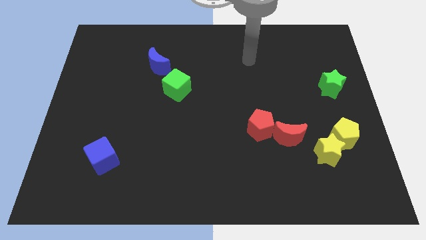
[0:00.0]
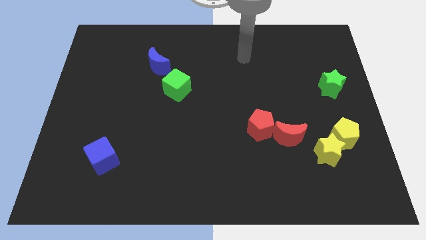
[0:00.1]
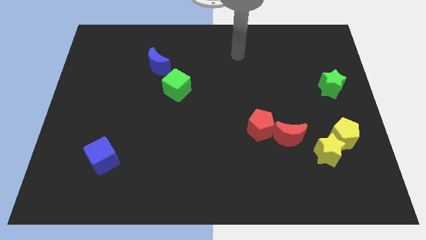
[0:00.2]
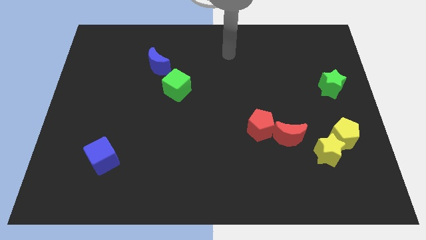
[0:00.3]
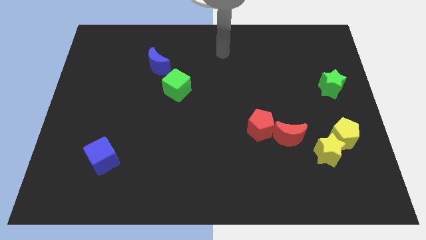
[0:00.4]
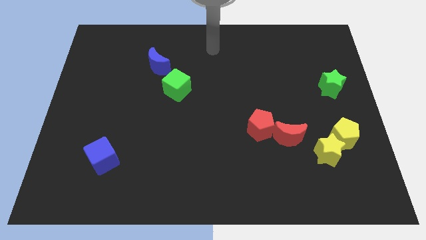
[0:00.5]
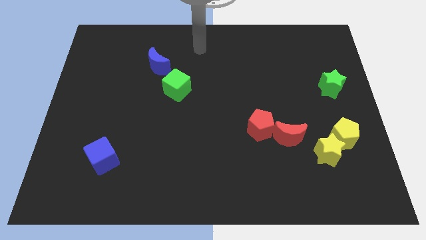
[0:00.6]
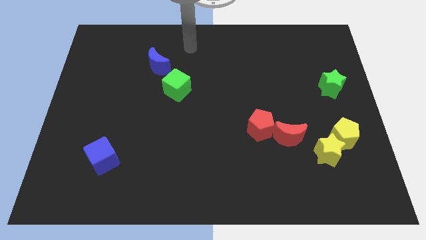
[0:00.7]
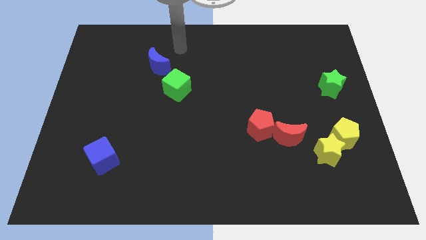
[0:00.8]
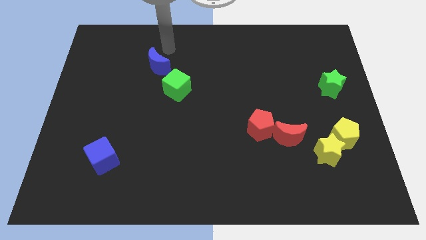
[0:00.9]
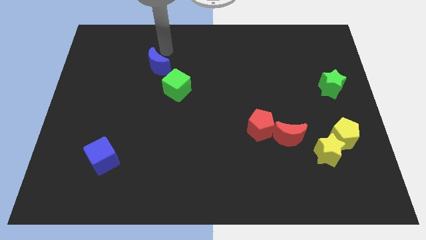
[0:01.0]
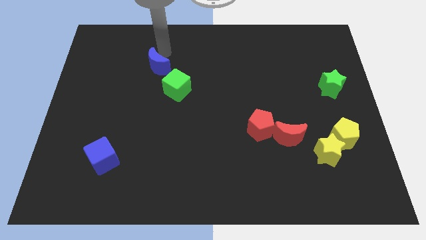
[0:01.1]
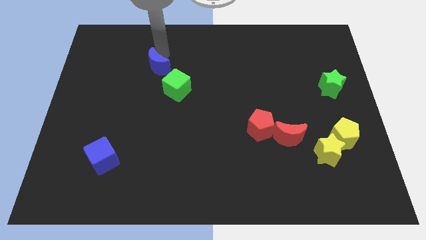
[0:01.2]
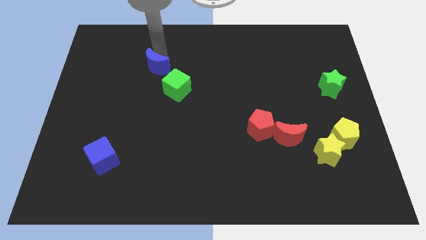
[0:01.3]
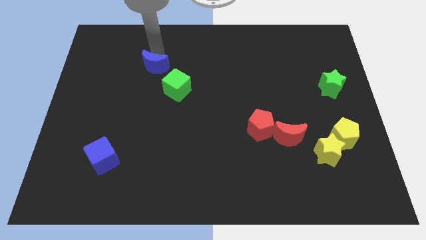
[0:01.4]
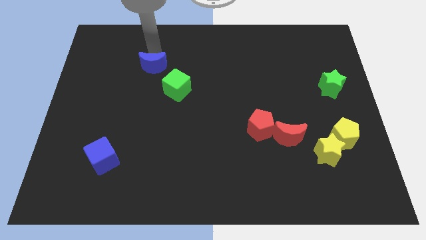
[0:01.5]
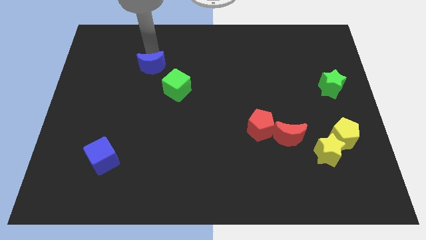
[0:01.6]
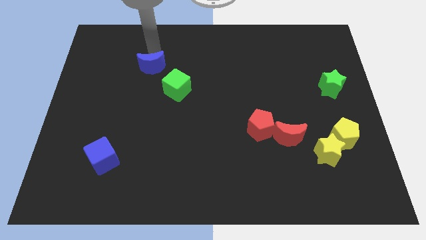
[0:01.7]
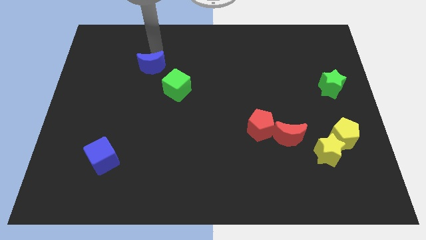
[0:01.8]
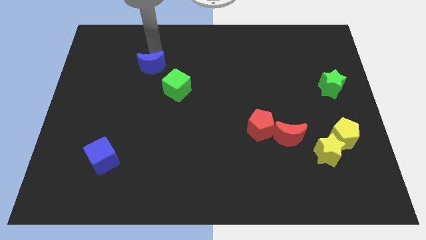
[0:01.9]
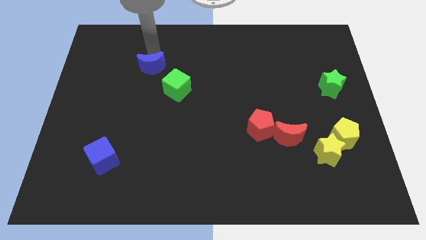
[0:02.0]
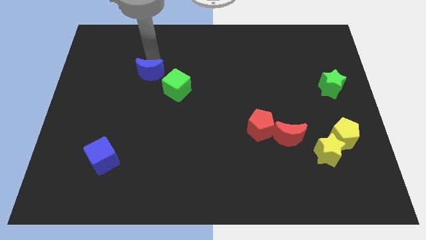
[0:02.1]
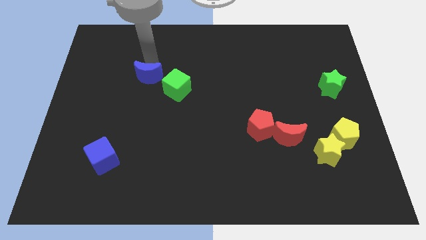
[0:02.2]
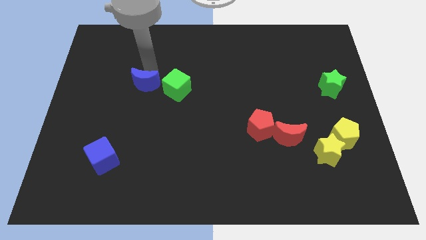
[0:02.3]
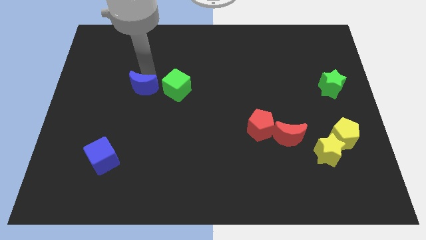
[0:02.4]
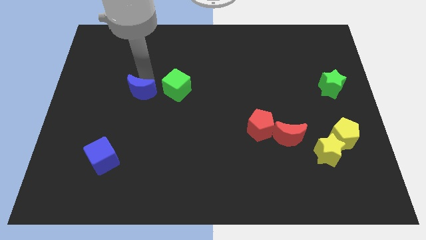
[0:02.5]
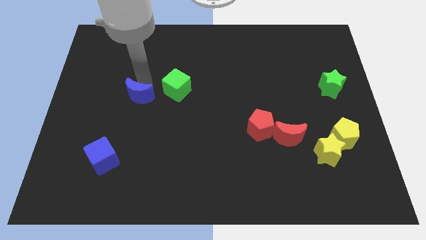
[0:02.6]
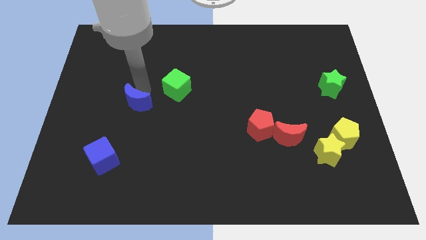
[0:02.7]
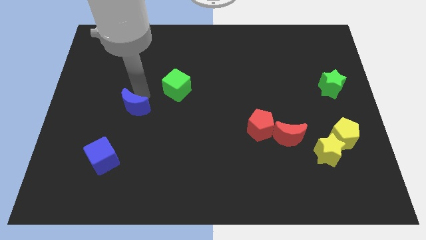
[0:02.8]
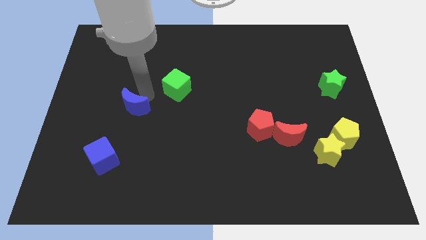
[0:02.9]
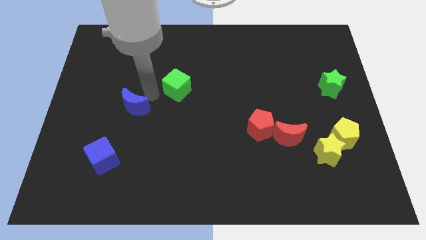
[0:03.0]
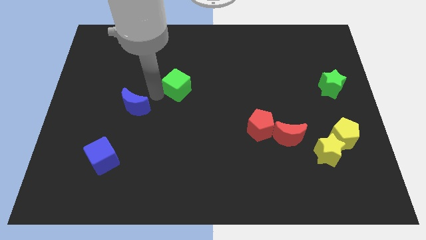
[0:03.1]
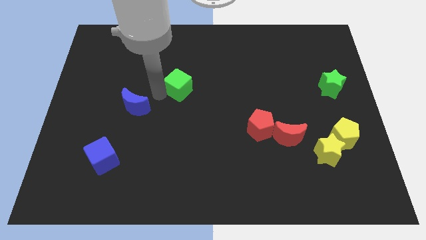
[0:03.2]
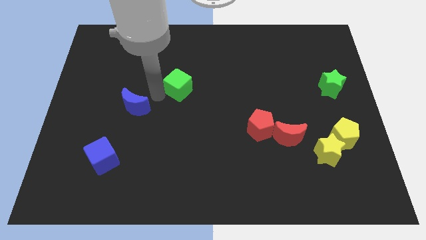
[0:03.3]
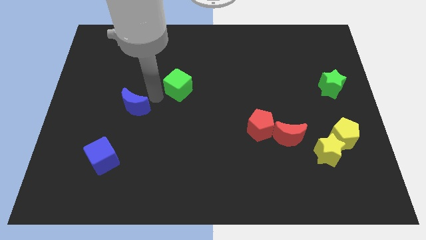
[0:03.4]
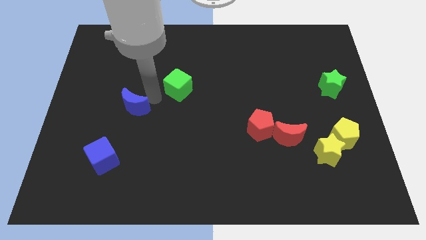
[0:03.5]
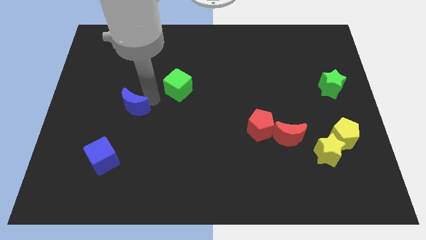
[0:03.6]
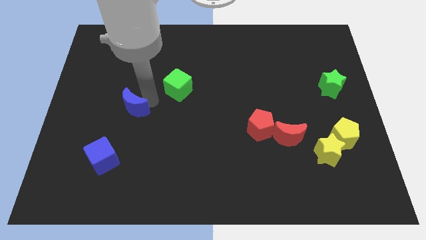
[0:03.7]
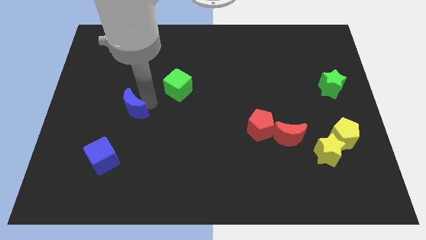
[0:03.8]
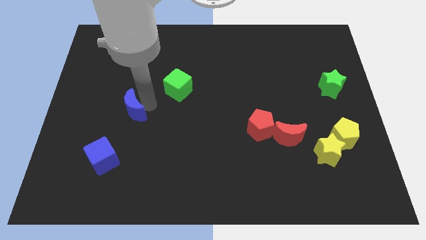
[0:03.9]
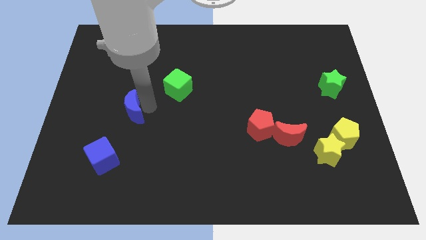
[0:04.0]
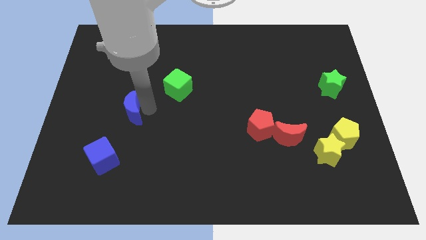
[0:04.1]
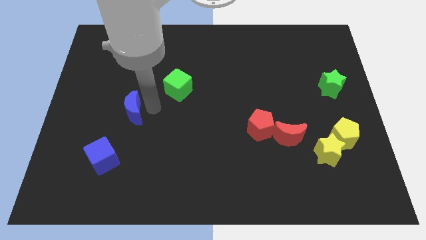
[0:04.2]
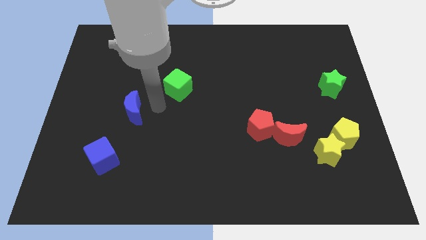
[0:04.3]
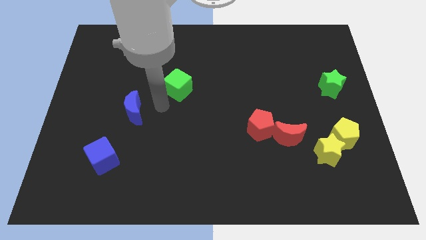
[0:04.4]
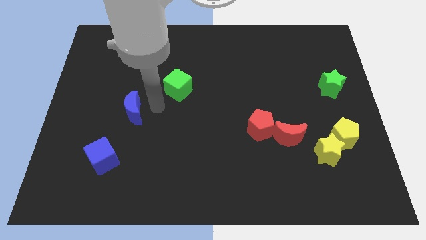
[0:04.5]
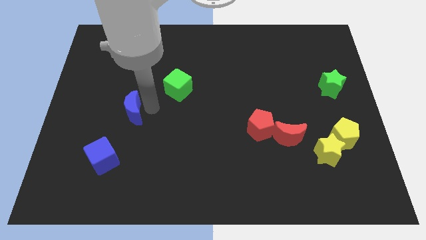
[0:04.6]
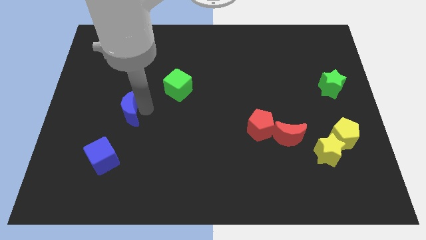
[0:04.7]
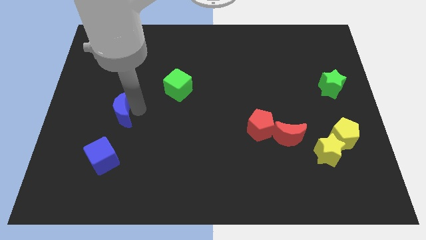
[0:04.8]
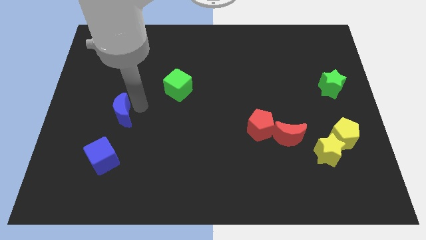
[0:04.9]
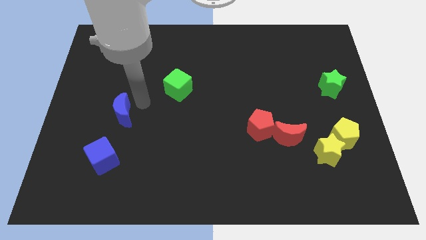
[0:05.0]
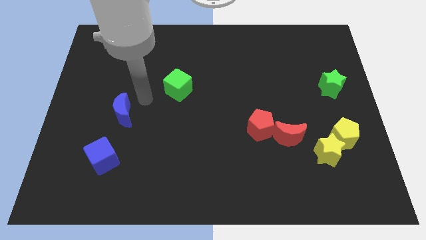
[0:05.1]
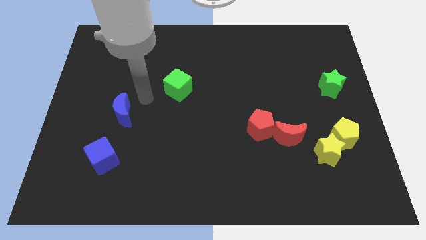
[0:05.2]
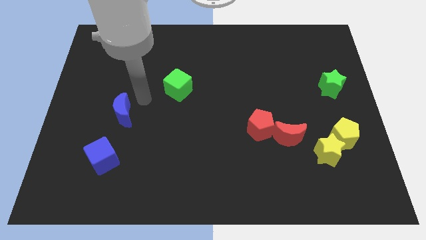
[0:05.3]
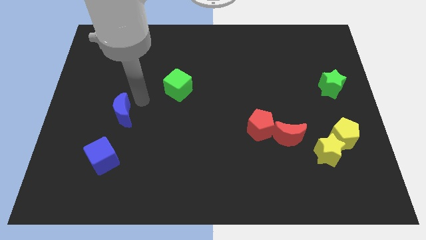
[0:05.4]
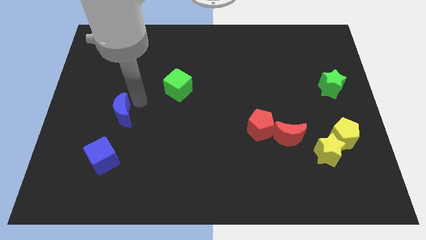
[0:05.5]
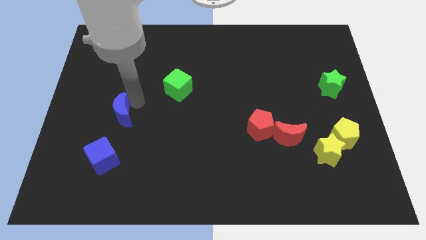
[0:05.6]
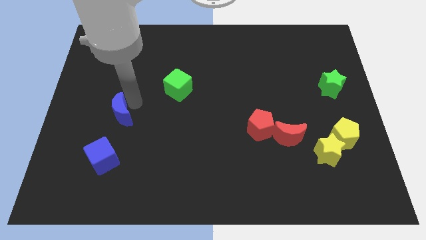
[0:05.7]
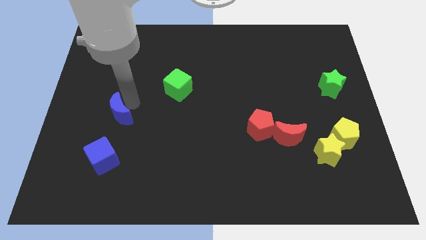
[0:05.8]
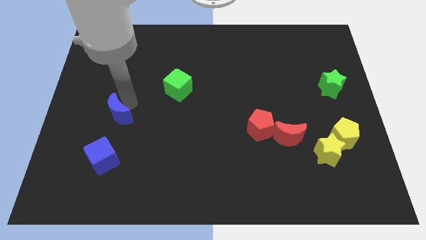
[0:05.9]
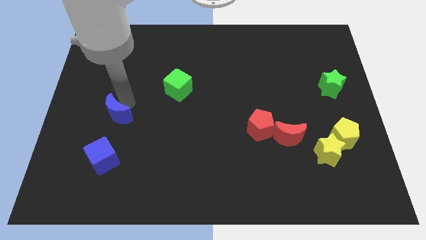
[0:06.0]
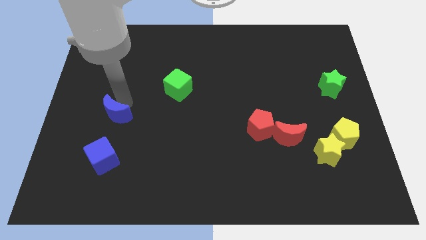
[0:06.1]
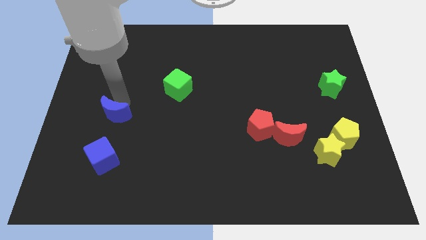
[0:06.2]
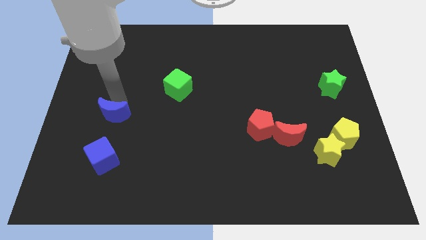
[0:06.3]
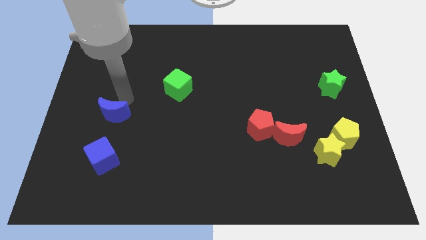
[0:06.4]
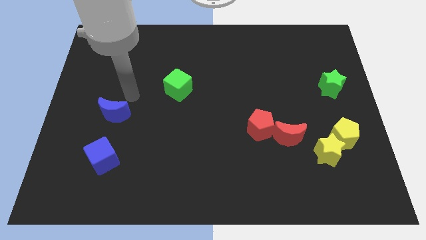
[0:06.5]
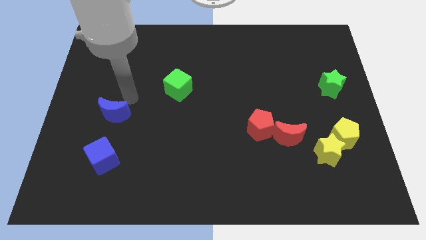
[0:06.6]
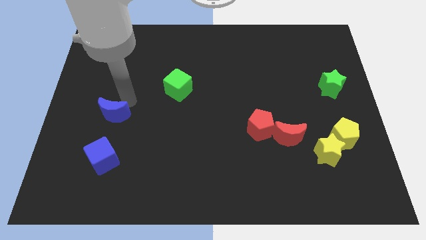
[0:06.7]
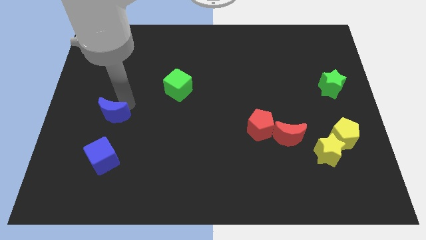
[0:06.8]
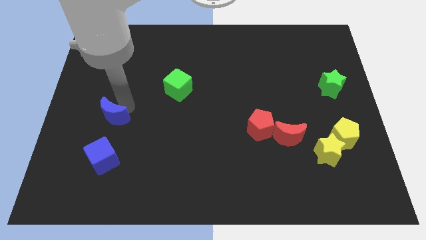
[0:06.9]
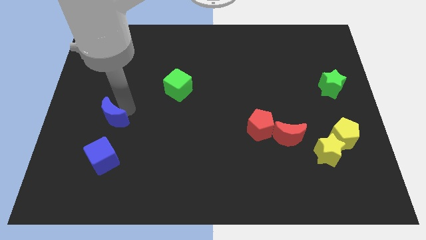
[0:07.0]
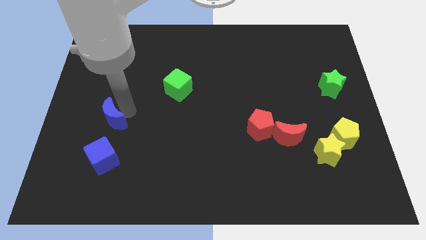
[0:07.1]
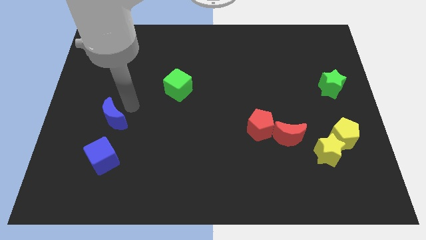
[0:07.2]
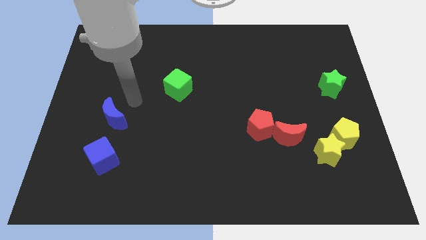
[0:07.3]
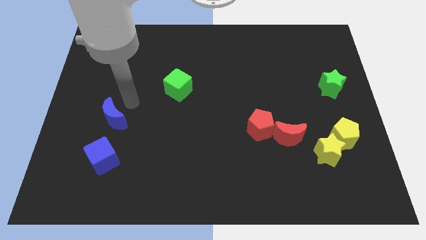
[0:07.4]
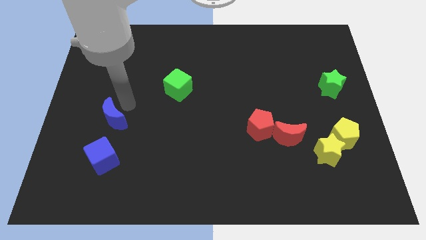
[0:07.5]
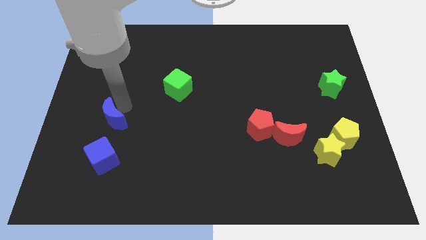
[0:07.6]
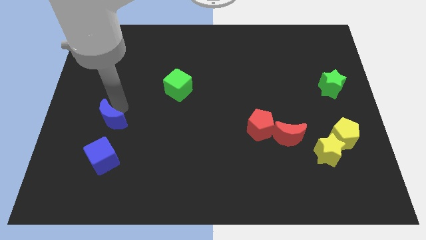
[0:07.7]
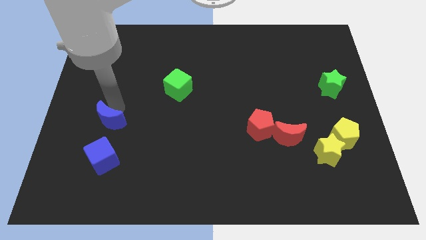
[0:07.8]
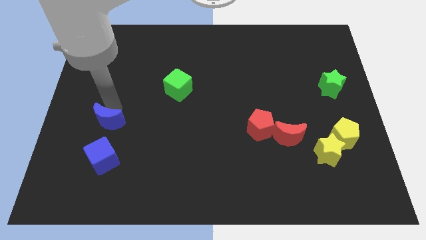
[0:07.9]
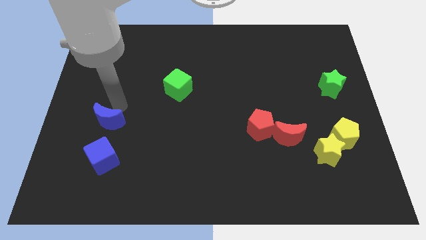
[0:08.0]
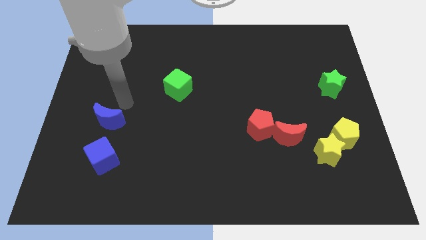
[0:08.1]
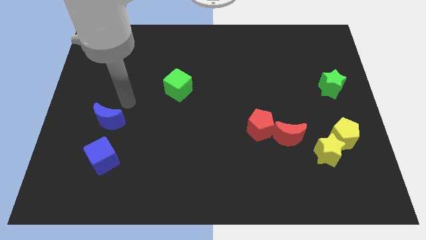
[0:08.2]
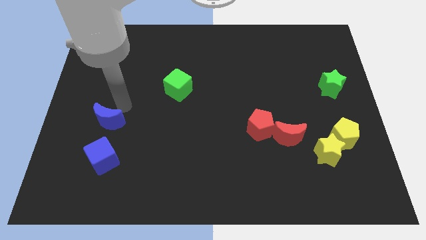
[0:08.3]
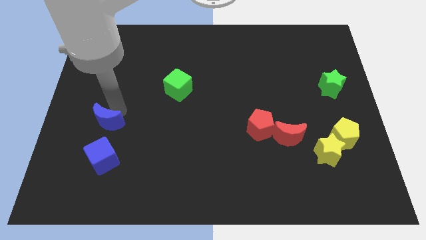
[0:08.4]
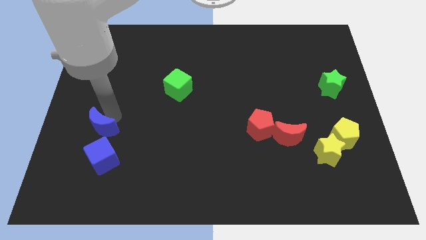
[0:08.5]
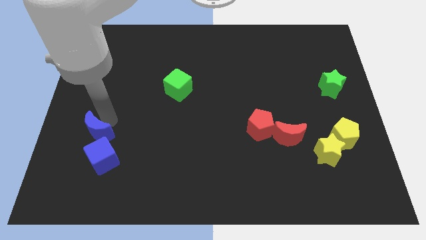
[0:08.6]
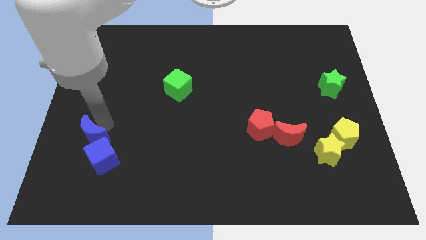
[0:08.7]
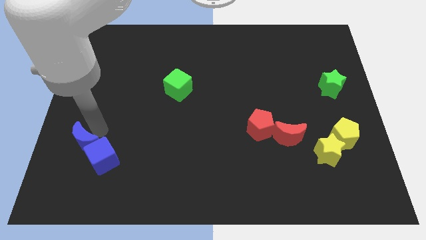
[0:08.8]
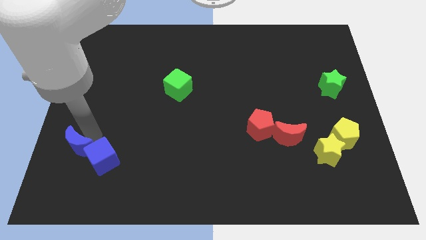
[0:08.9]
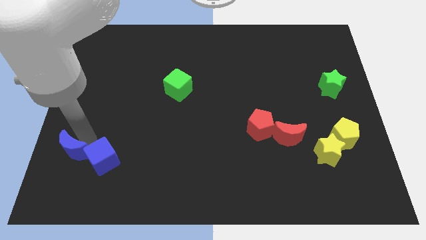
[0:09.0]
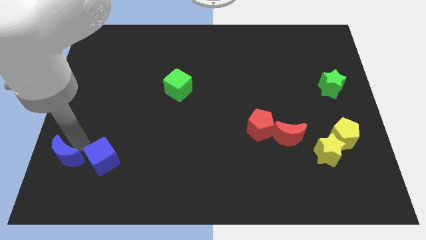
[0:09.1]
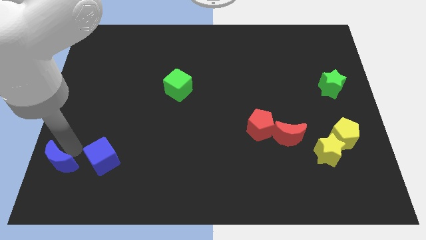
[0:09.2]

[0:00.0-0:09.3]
move the blue moon to the lower left corner
